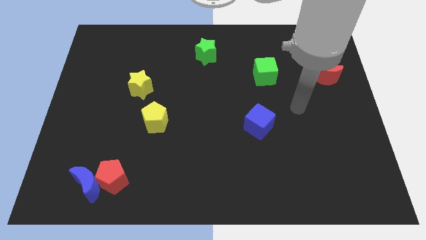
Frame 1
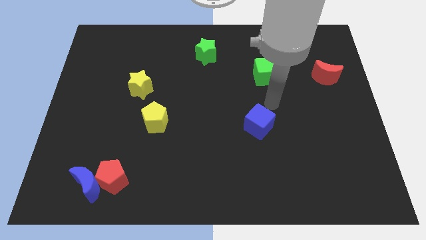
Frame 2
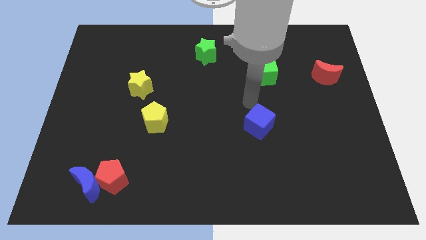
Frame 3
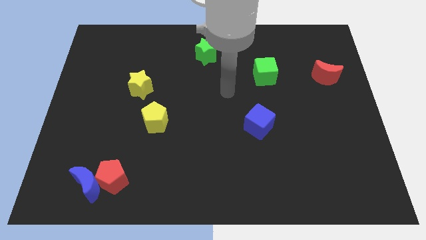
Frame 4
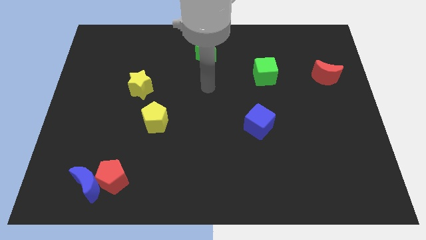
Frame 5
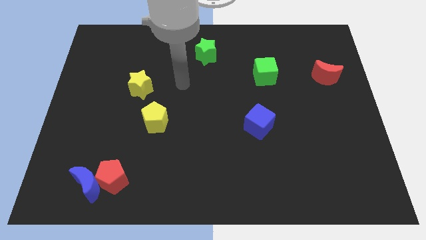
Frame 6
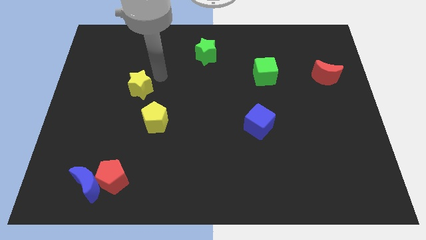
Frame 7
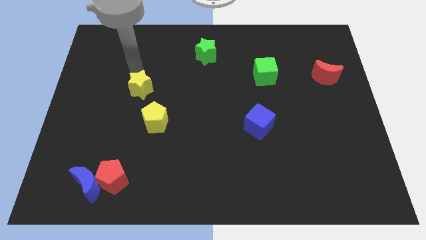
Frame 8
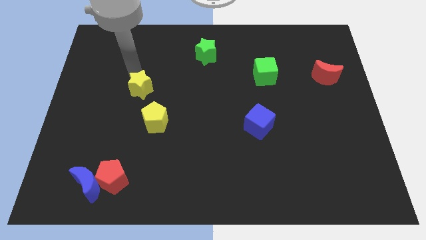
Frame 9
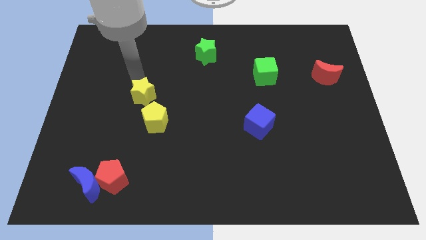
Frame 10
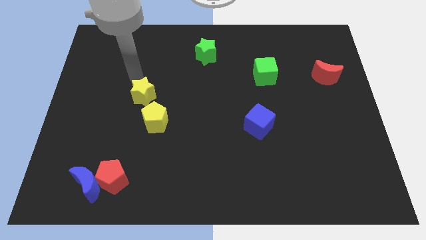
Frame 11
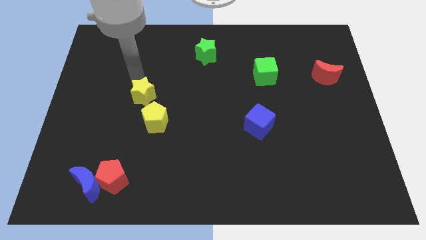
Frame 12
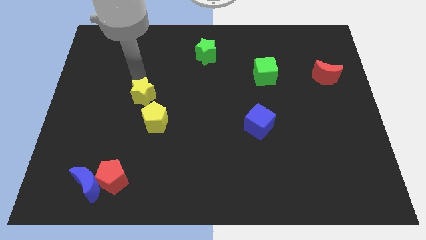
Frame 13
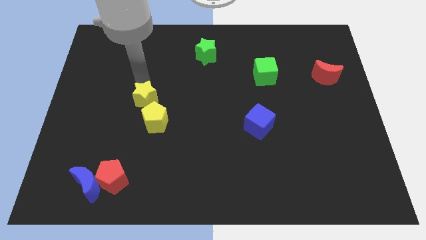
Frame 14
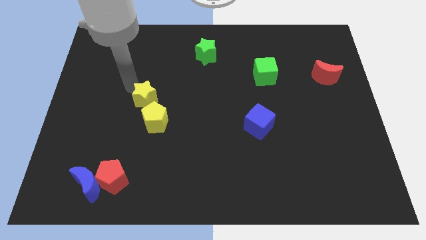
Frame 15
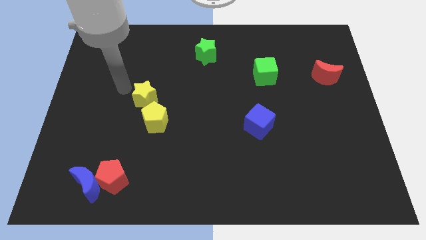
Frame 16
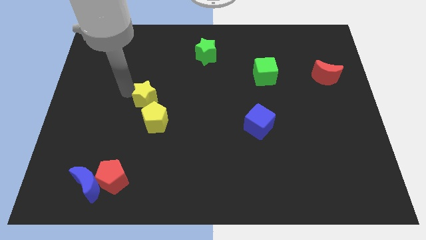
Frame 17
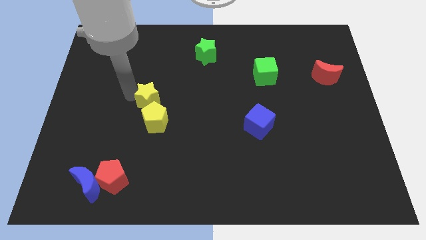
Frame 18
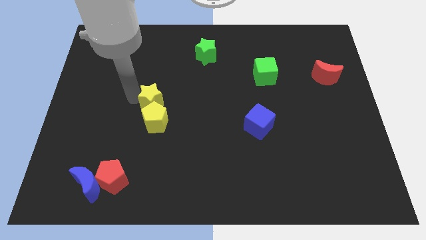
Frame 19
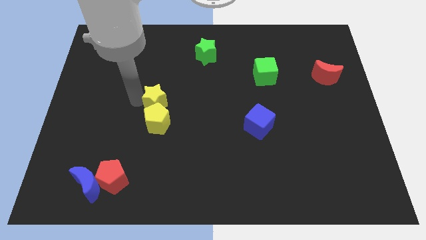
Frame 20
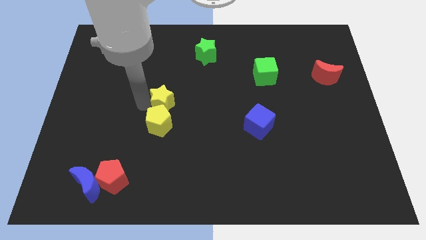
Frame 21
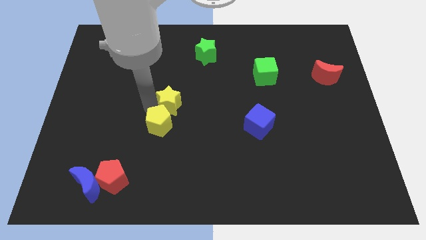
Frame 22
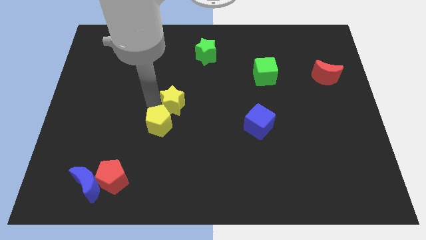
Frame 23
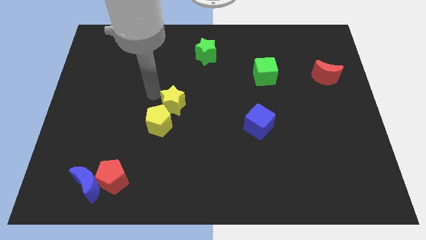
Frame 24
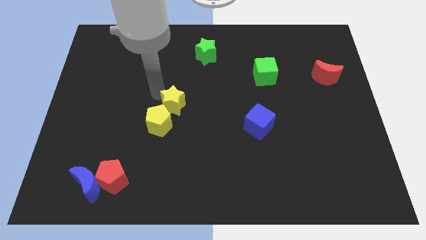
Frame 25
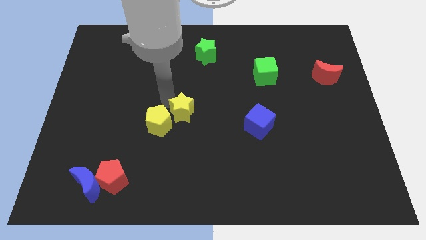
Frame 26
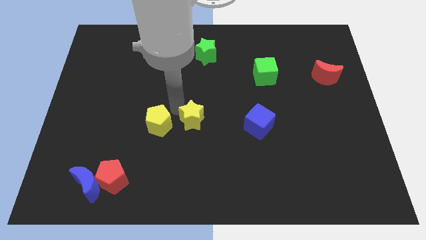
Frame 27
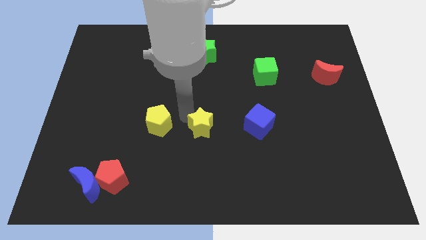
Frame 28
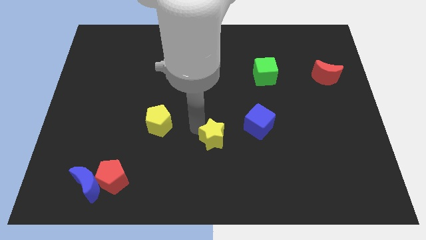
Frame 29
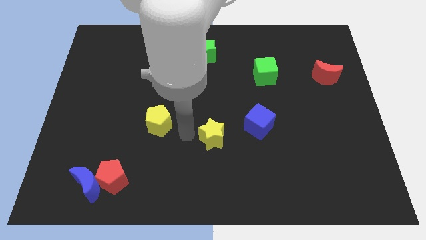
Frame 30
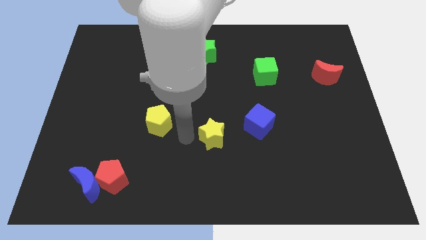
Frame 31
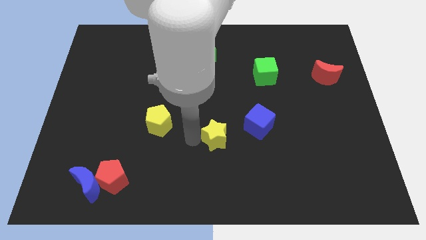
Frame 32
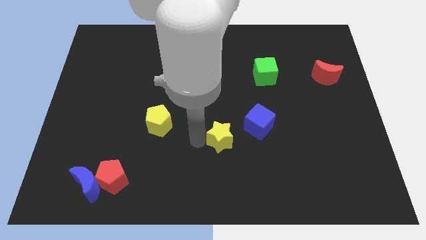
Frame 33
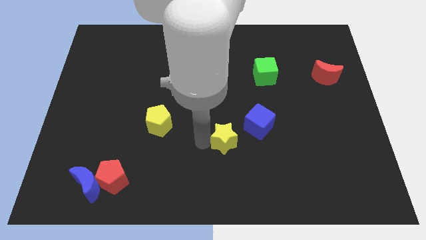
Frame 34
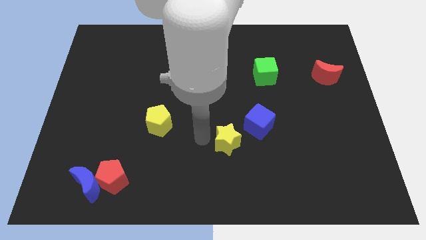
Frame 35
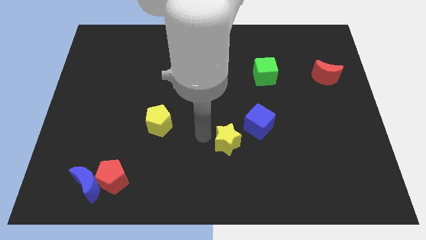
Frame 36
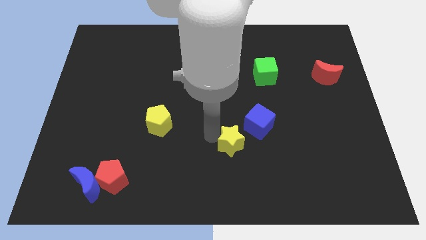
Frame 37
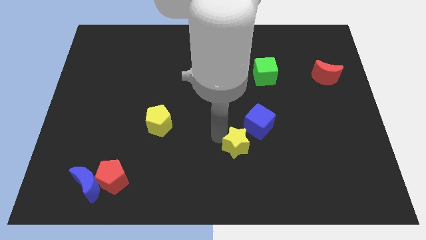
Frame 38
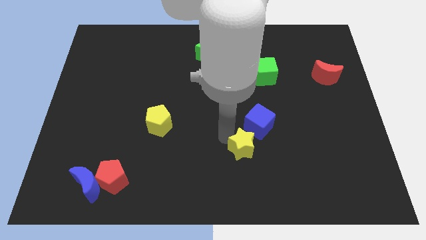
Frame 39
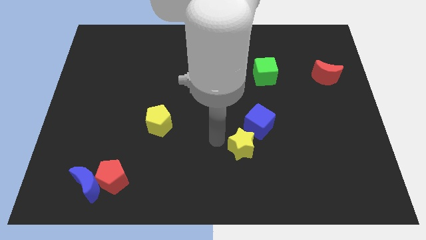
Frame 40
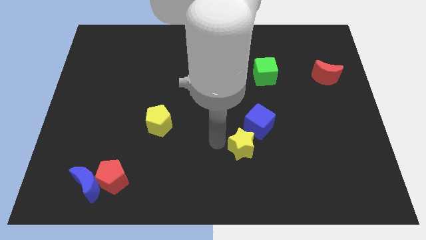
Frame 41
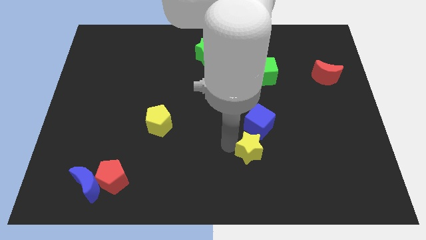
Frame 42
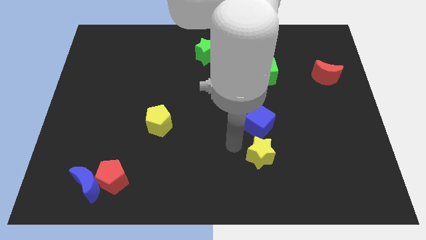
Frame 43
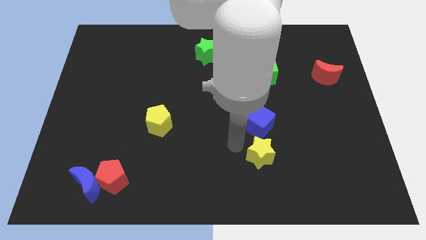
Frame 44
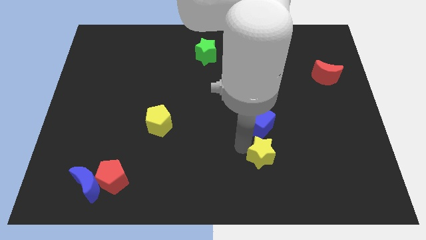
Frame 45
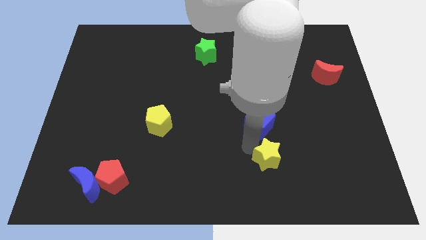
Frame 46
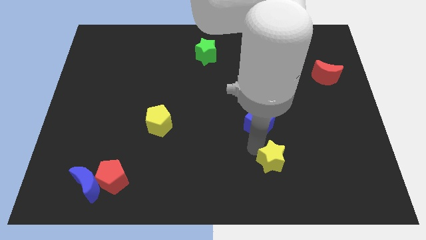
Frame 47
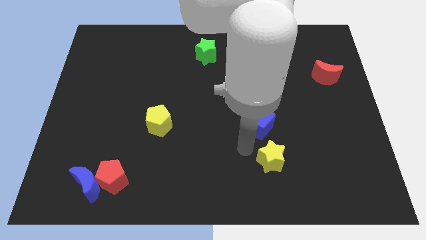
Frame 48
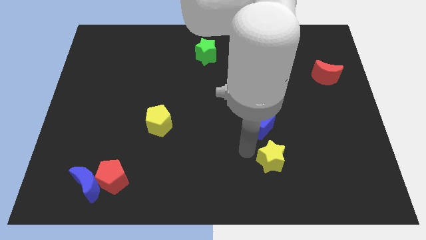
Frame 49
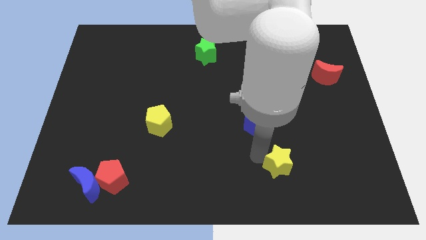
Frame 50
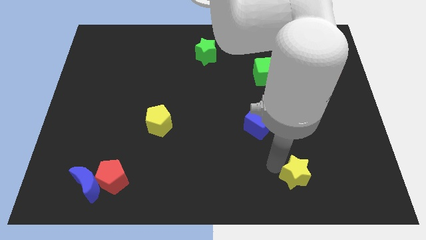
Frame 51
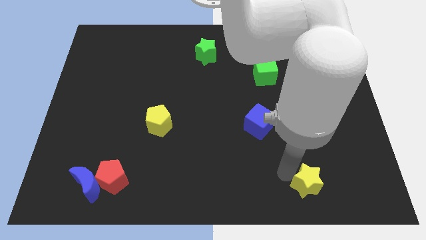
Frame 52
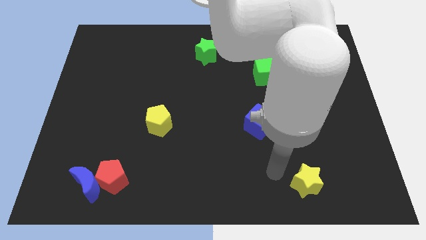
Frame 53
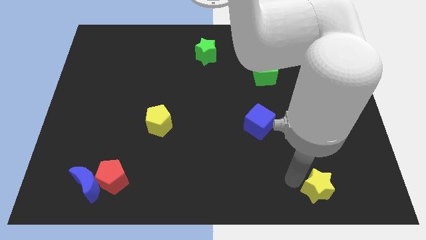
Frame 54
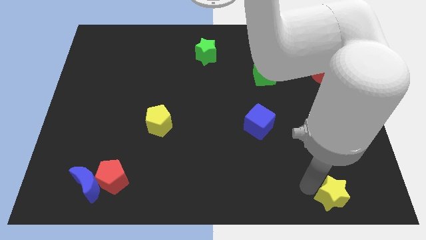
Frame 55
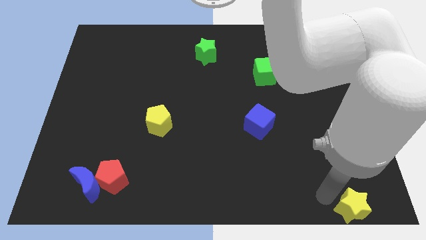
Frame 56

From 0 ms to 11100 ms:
push the yellow star to the bottom right of the board

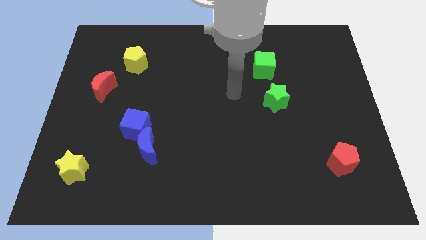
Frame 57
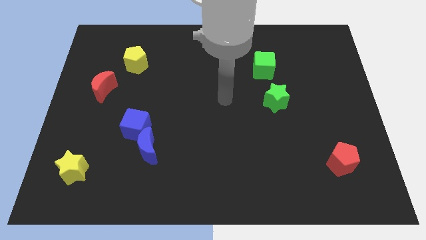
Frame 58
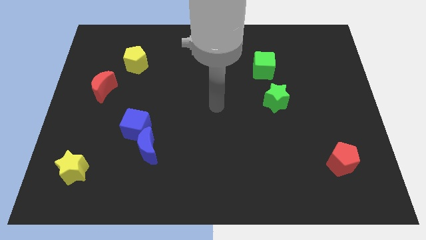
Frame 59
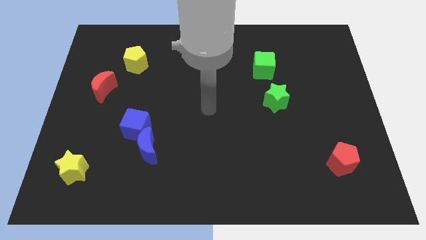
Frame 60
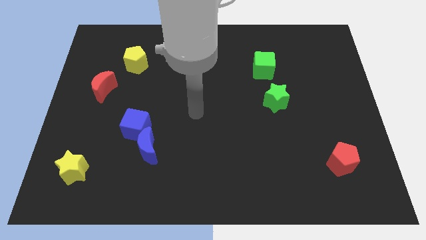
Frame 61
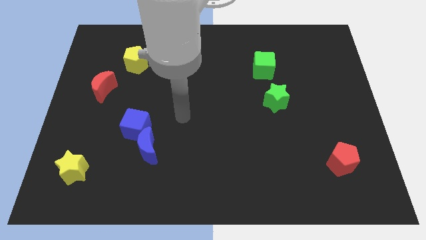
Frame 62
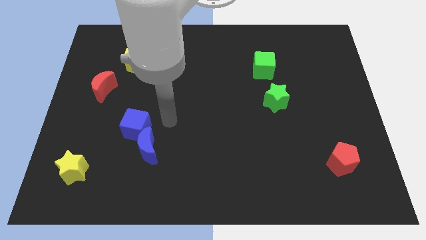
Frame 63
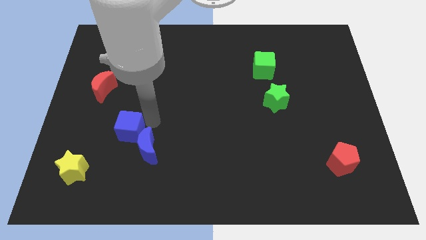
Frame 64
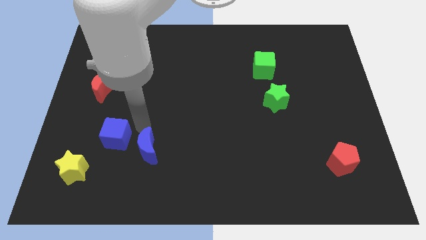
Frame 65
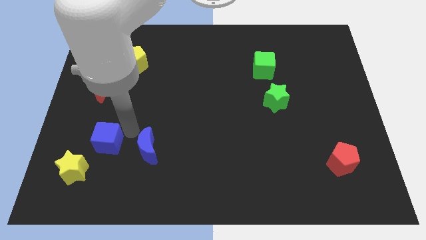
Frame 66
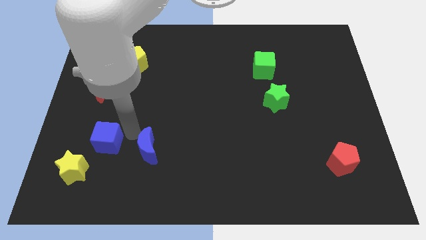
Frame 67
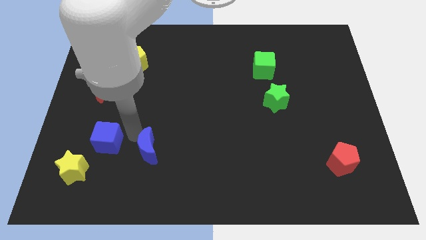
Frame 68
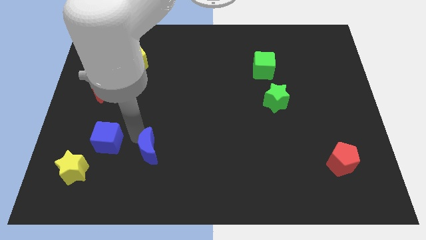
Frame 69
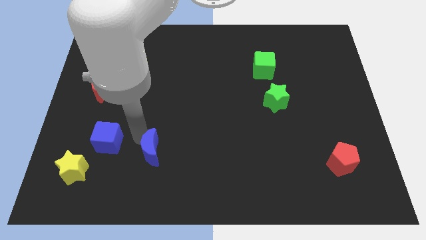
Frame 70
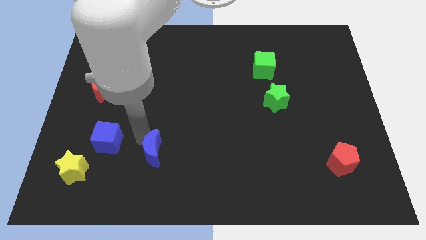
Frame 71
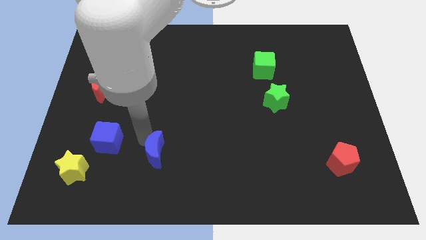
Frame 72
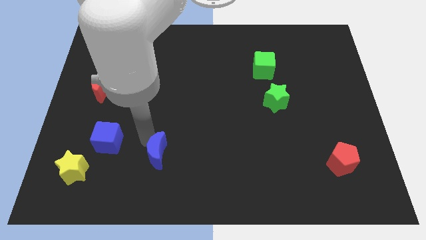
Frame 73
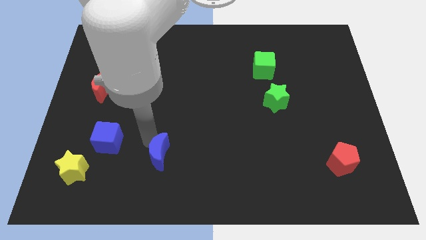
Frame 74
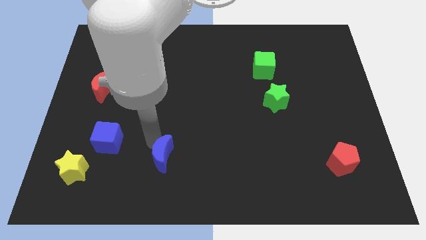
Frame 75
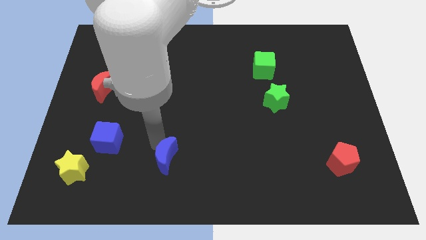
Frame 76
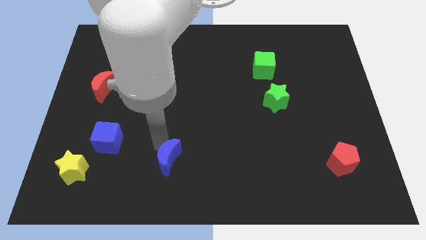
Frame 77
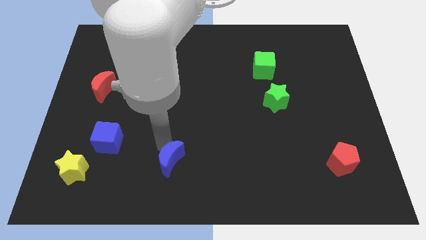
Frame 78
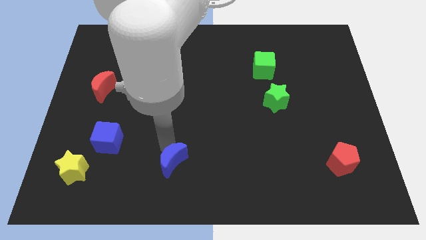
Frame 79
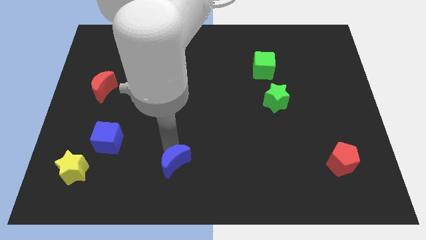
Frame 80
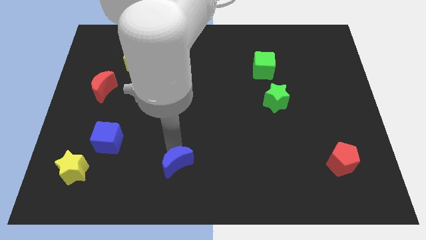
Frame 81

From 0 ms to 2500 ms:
slide the blue moon to the bottom side
